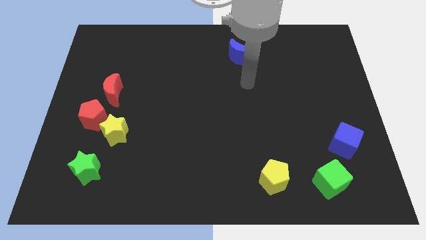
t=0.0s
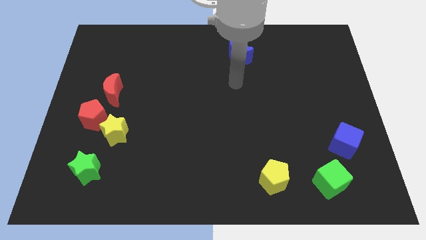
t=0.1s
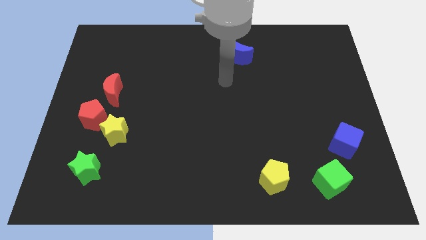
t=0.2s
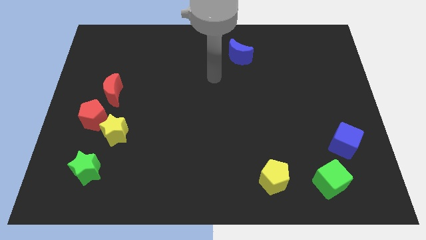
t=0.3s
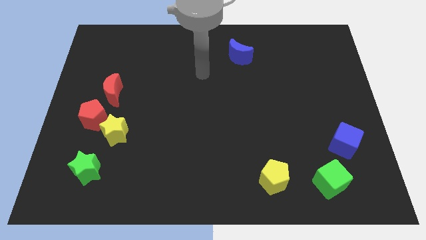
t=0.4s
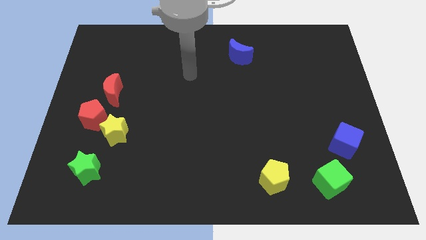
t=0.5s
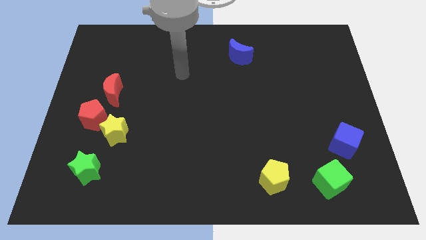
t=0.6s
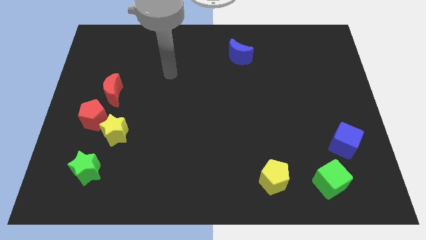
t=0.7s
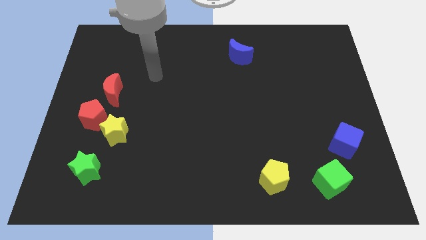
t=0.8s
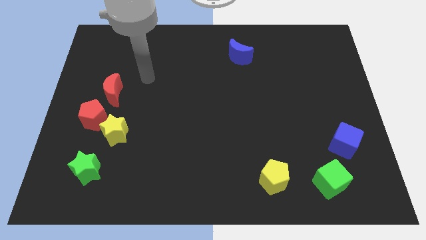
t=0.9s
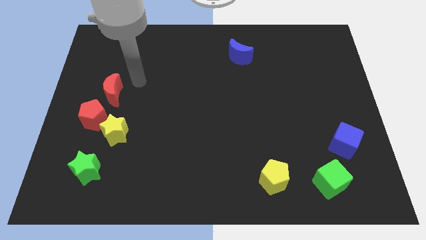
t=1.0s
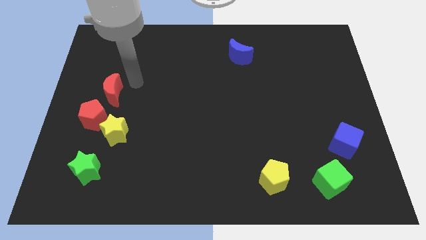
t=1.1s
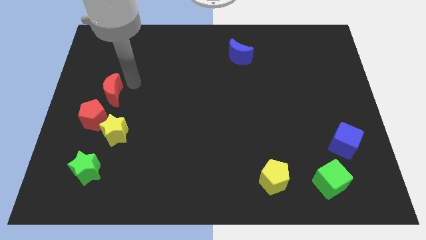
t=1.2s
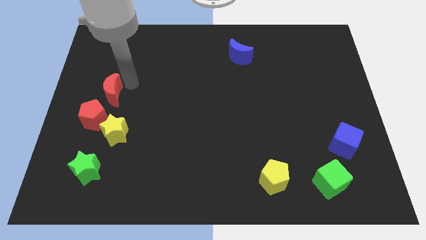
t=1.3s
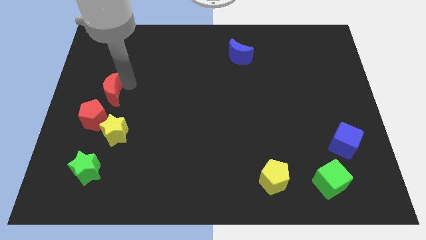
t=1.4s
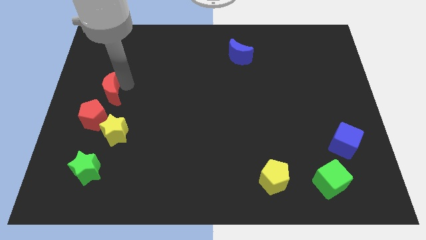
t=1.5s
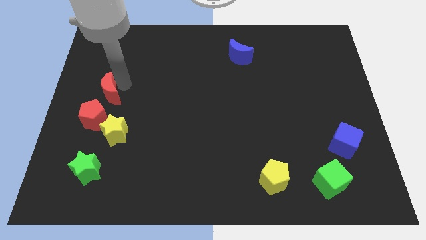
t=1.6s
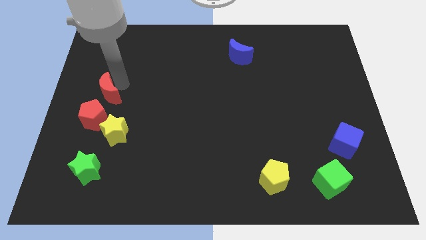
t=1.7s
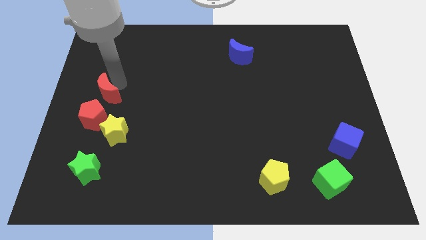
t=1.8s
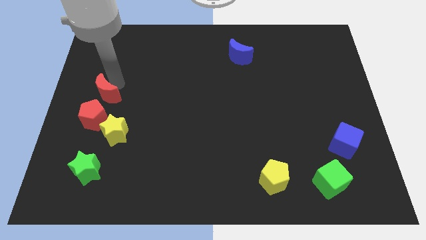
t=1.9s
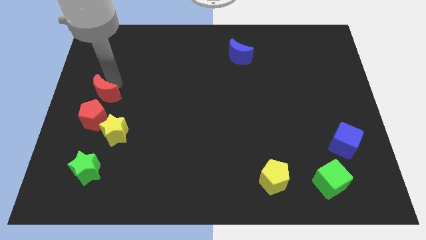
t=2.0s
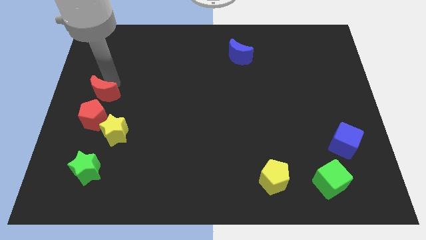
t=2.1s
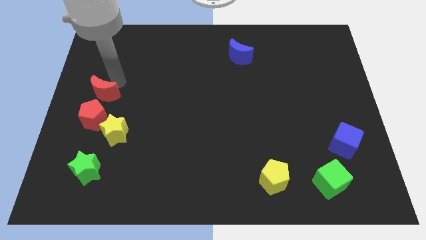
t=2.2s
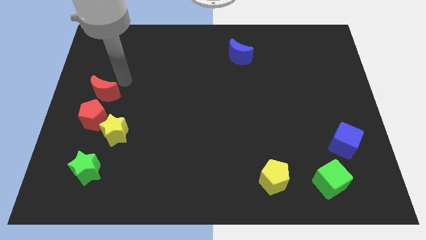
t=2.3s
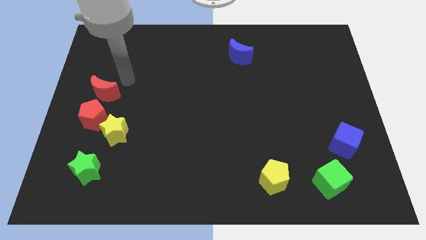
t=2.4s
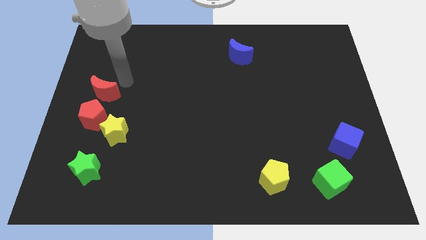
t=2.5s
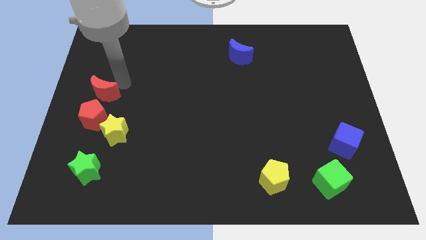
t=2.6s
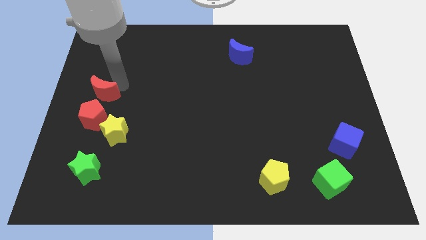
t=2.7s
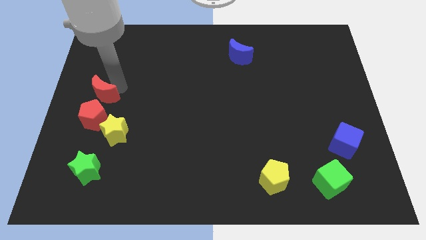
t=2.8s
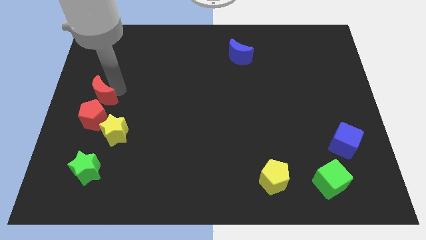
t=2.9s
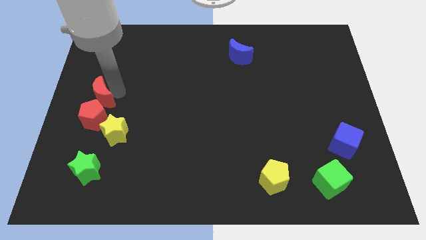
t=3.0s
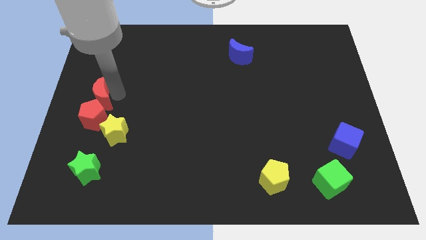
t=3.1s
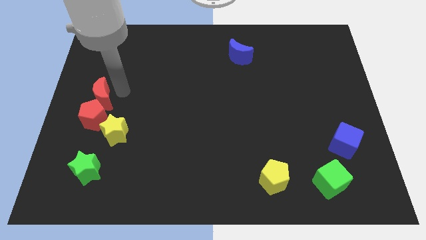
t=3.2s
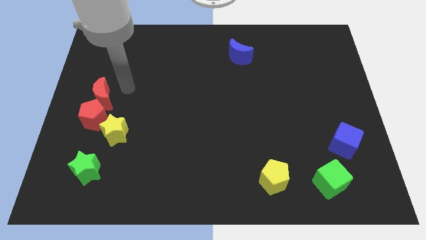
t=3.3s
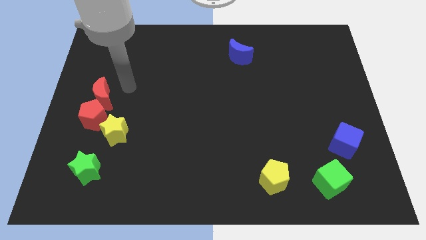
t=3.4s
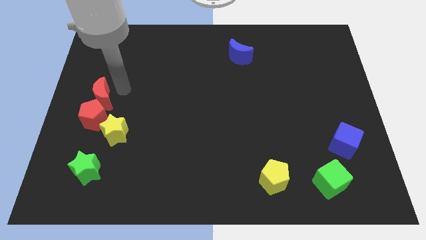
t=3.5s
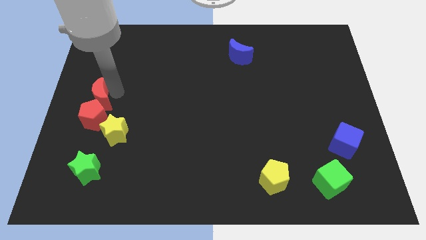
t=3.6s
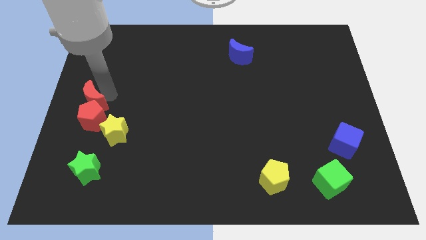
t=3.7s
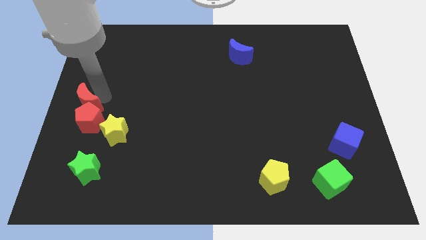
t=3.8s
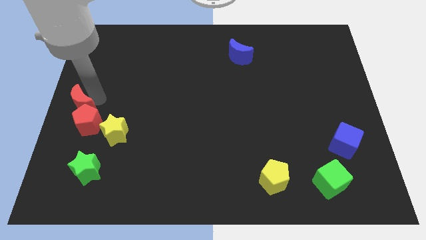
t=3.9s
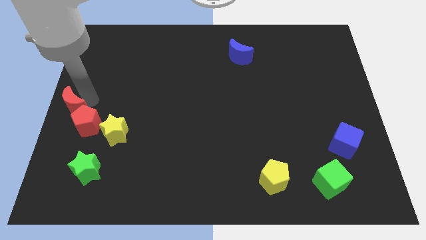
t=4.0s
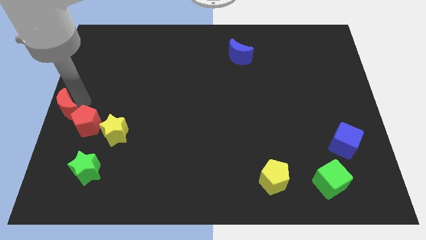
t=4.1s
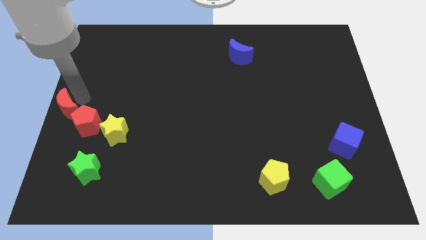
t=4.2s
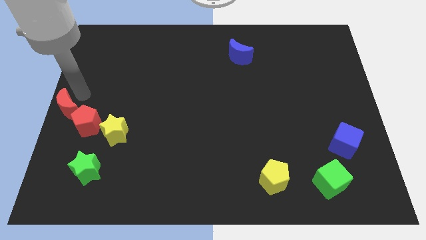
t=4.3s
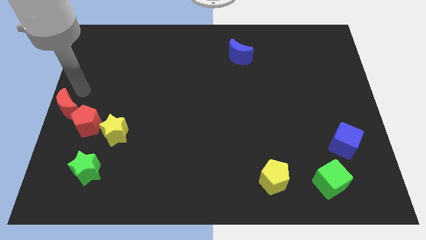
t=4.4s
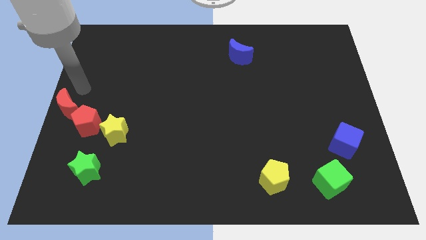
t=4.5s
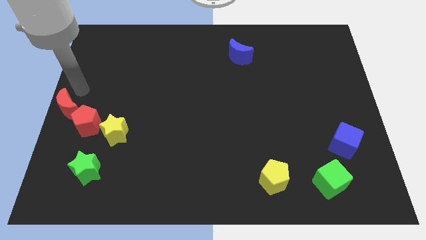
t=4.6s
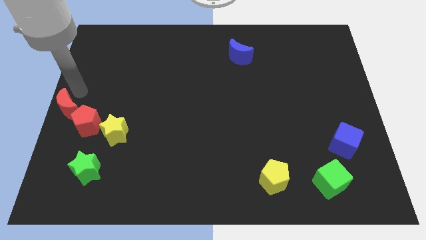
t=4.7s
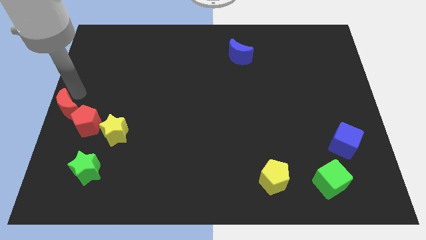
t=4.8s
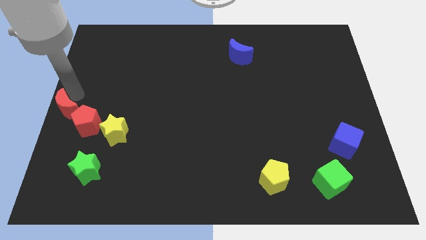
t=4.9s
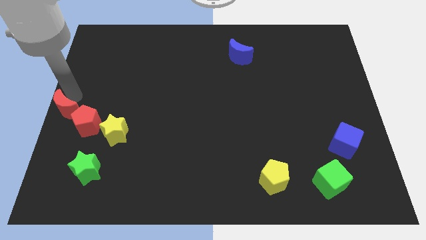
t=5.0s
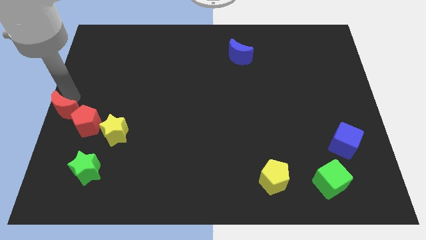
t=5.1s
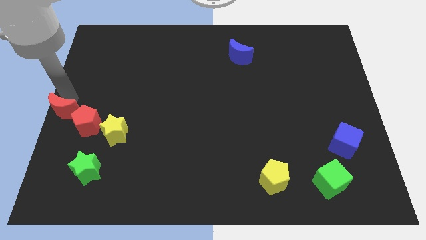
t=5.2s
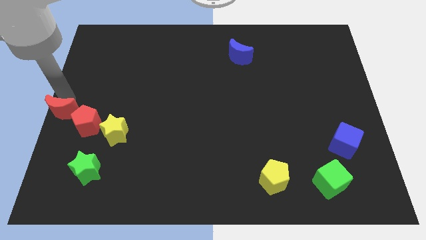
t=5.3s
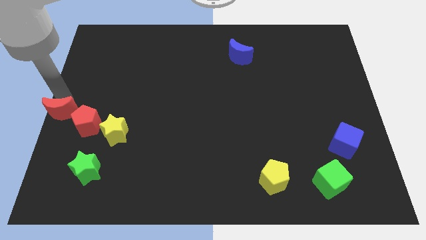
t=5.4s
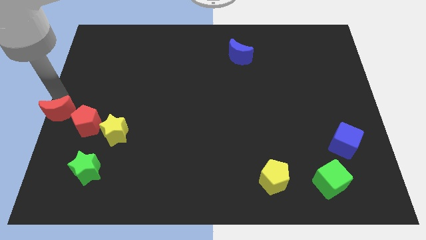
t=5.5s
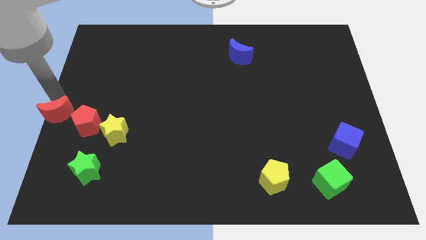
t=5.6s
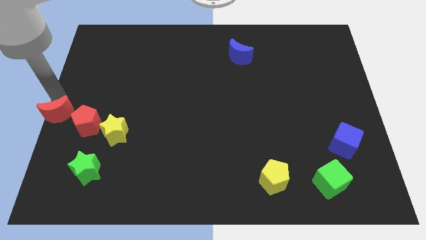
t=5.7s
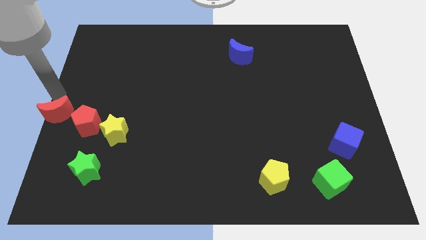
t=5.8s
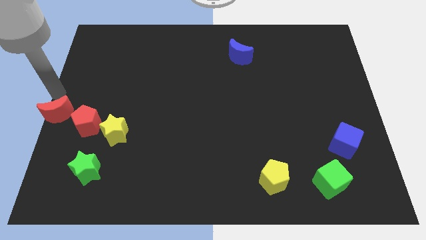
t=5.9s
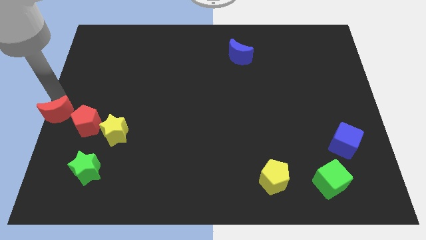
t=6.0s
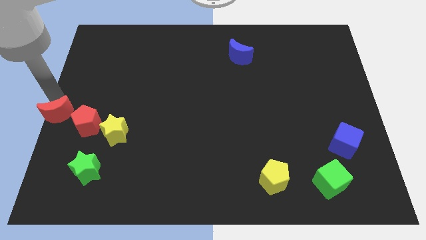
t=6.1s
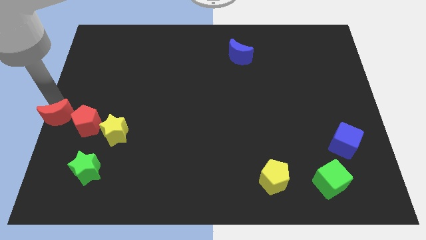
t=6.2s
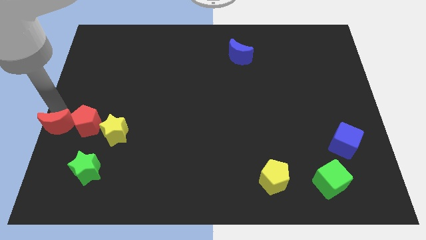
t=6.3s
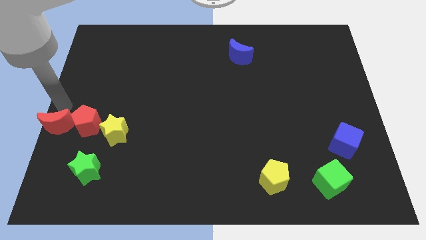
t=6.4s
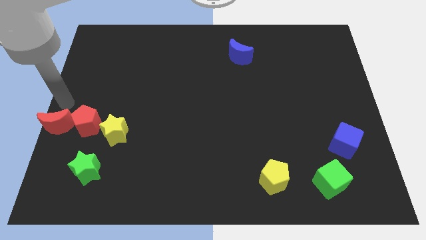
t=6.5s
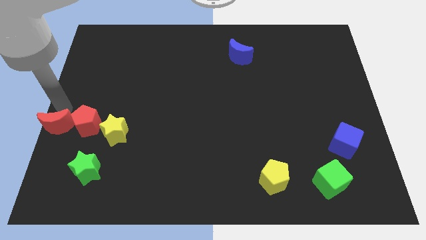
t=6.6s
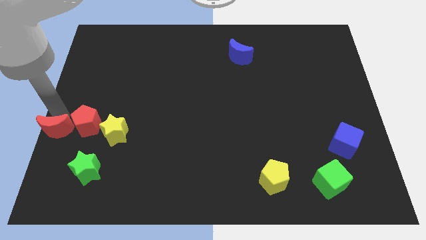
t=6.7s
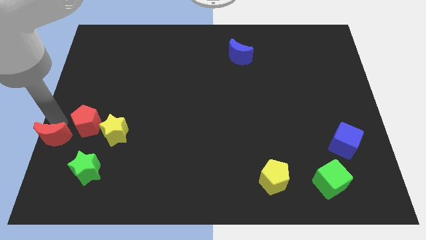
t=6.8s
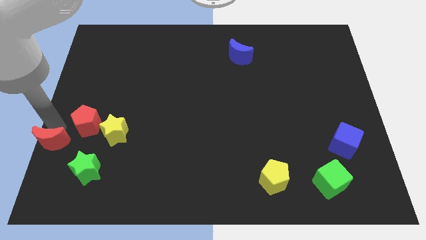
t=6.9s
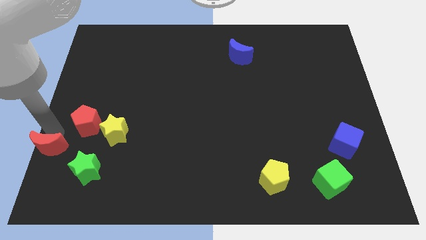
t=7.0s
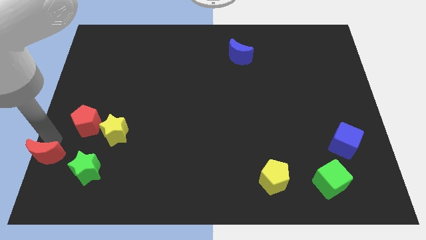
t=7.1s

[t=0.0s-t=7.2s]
put the red moon to the bottom left

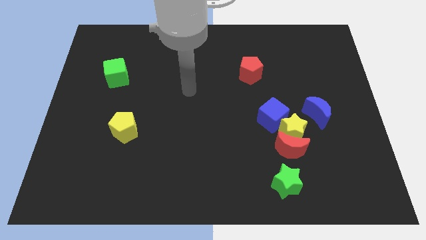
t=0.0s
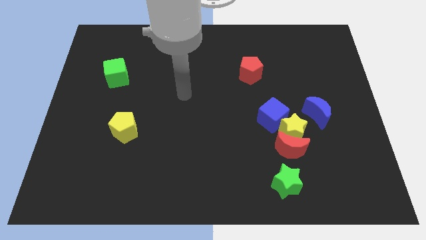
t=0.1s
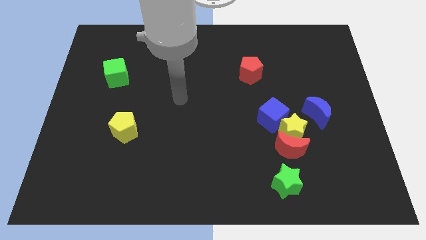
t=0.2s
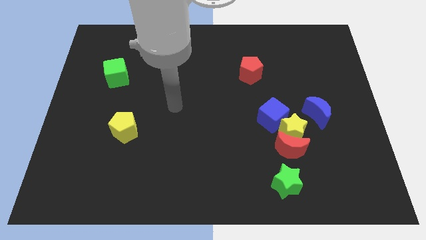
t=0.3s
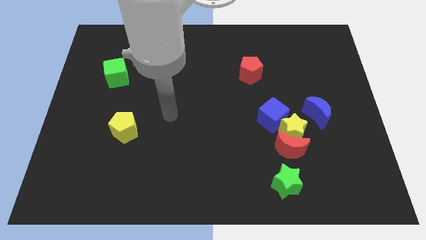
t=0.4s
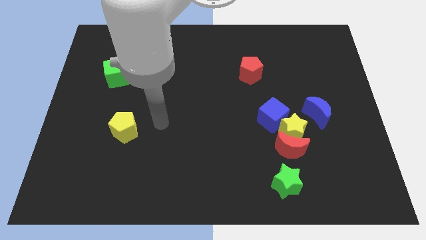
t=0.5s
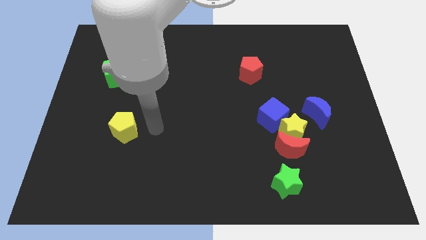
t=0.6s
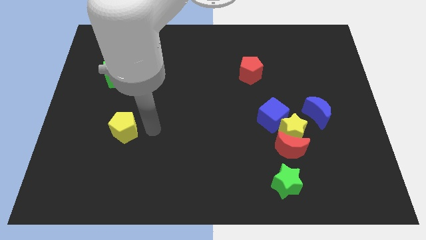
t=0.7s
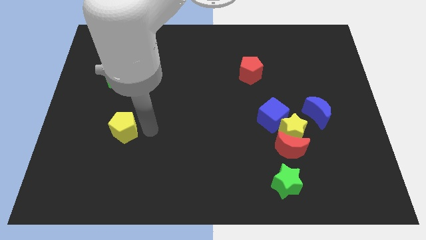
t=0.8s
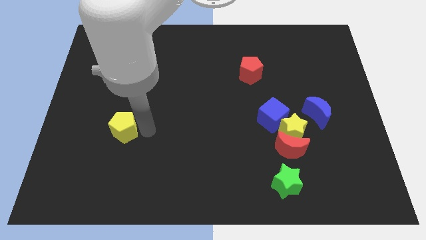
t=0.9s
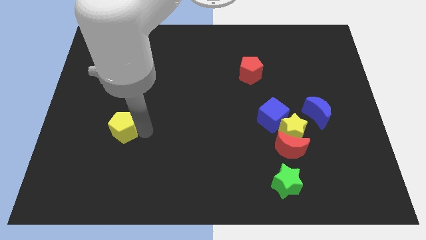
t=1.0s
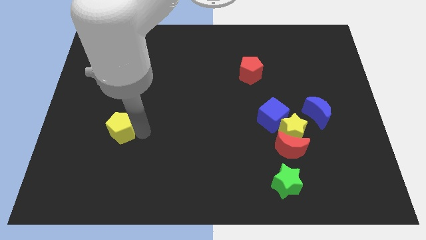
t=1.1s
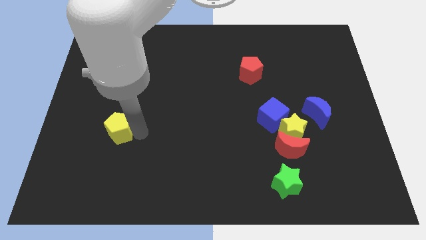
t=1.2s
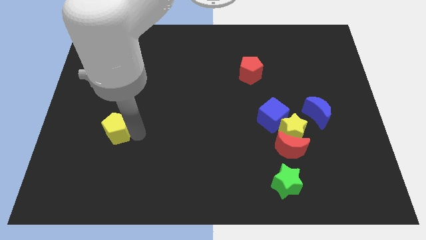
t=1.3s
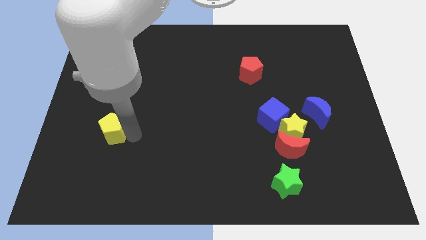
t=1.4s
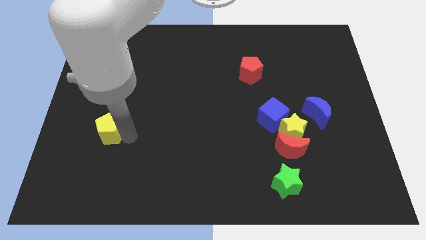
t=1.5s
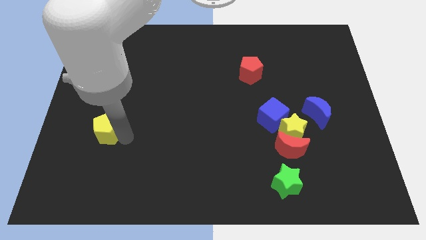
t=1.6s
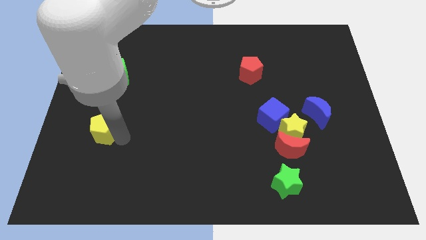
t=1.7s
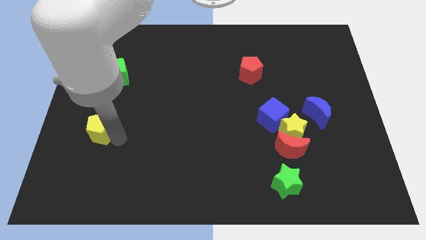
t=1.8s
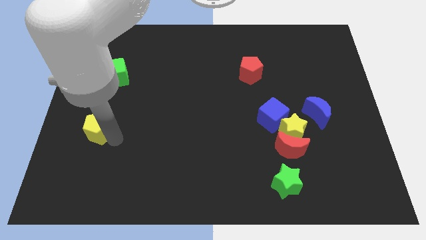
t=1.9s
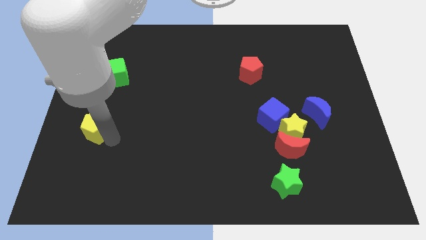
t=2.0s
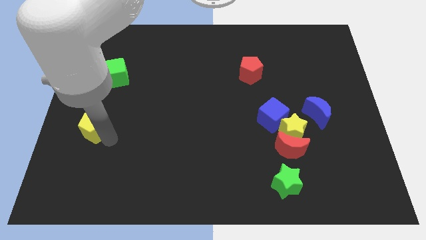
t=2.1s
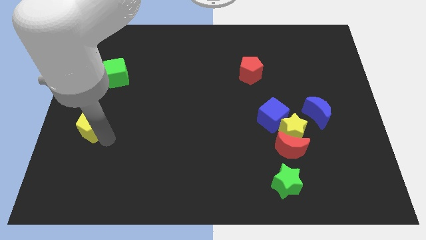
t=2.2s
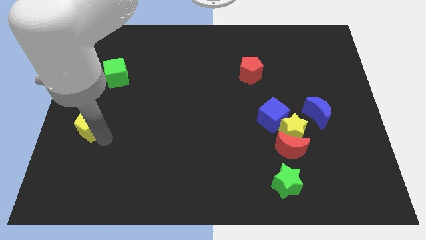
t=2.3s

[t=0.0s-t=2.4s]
slide the yellow pentagon to the left side of the board
